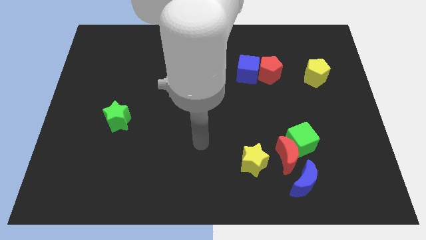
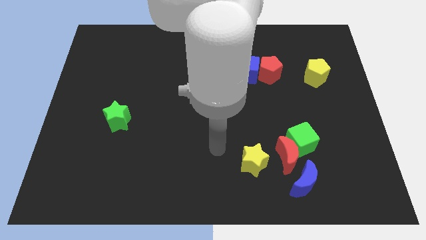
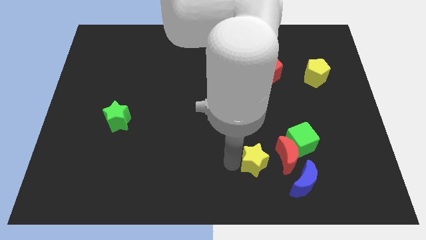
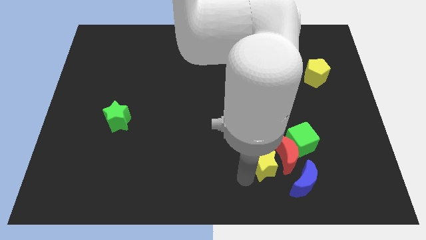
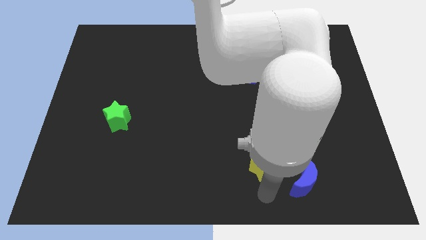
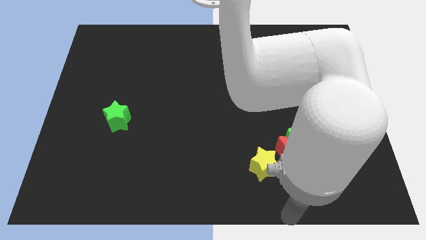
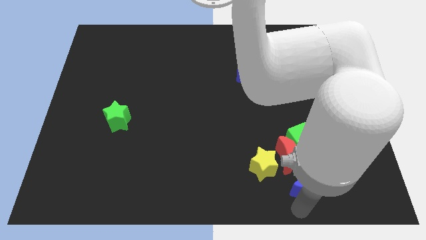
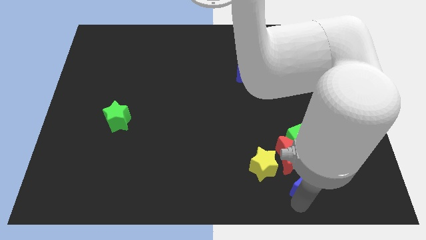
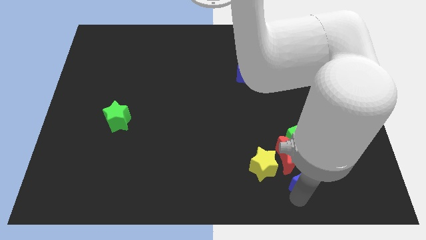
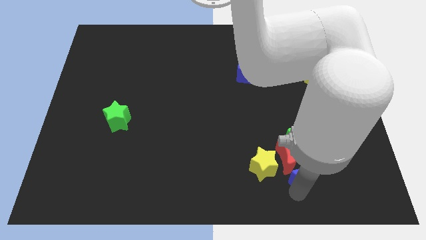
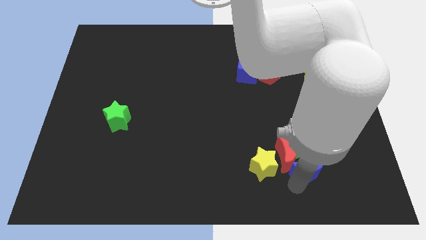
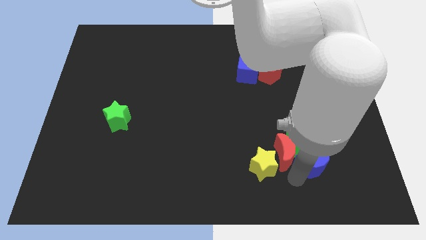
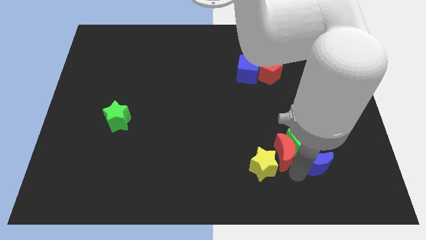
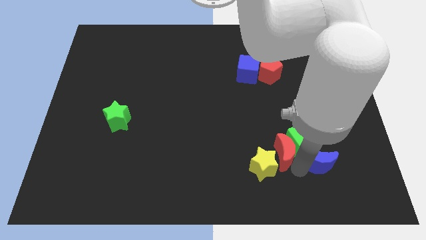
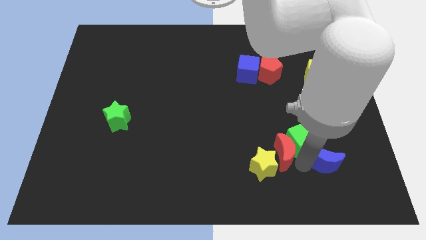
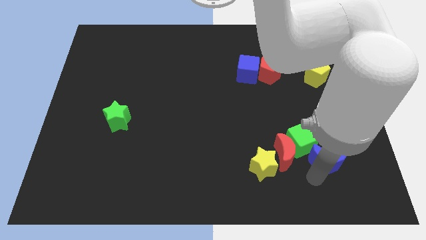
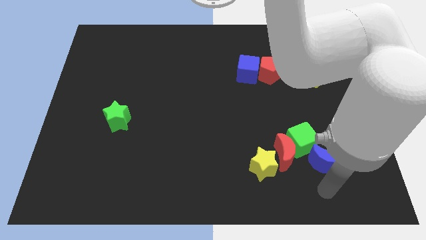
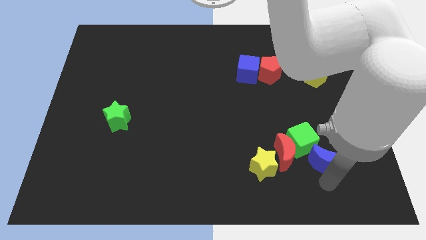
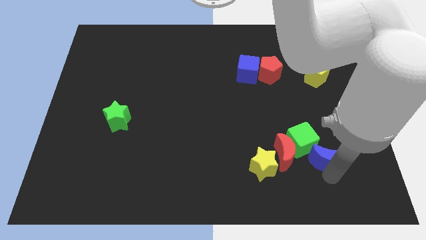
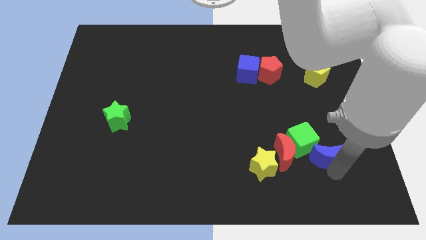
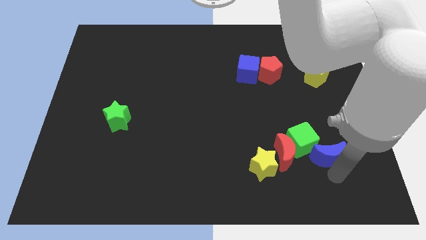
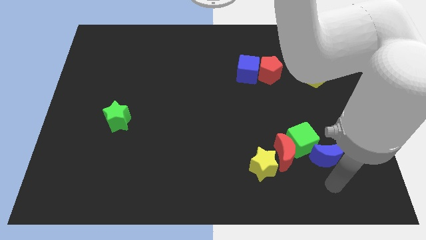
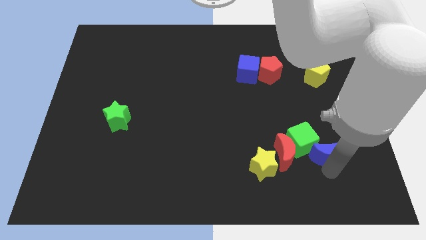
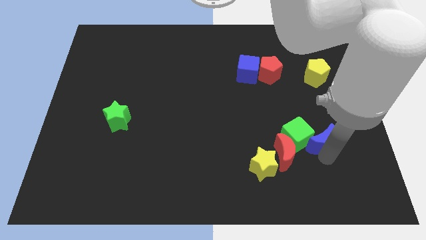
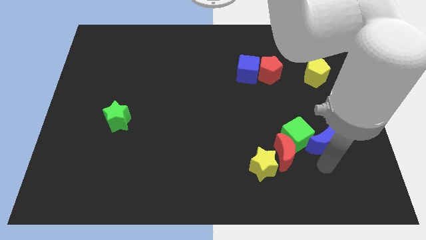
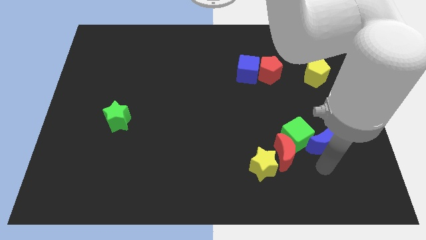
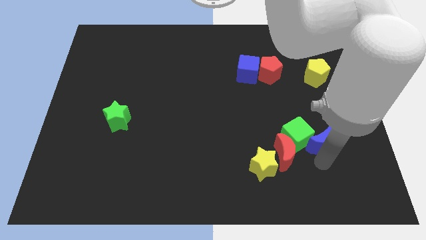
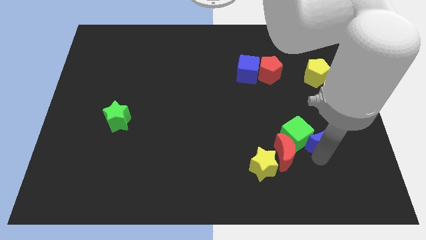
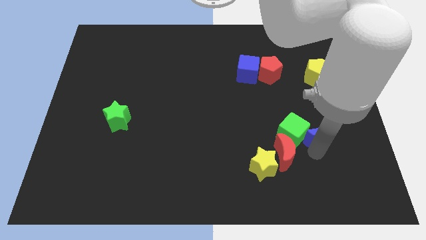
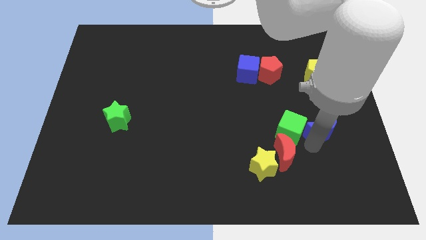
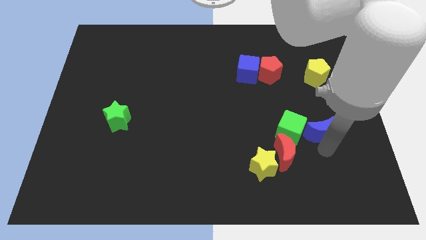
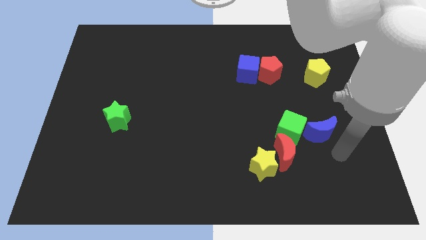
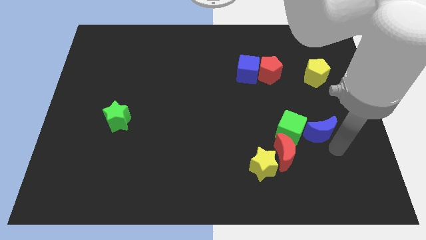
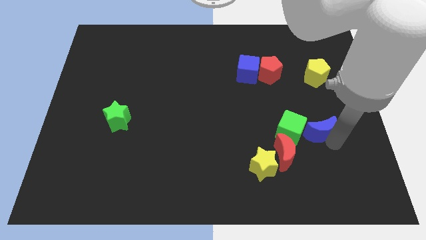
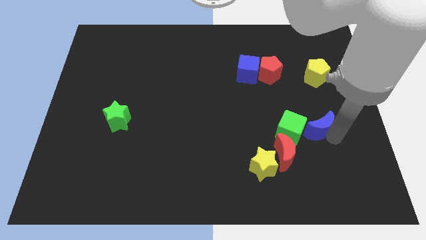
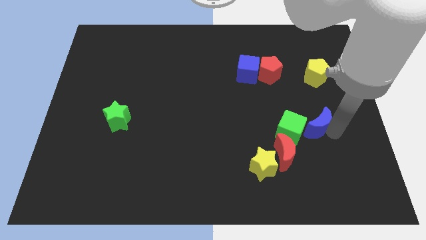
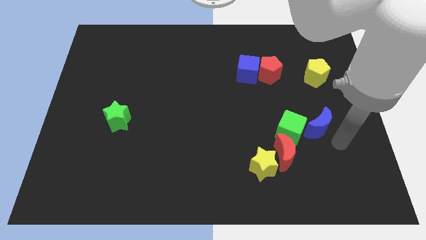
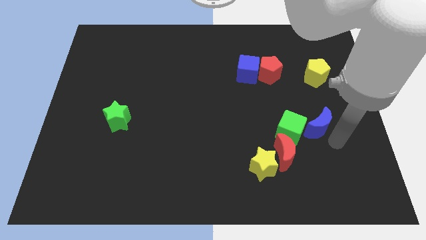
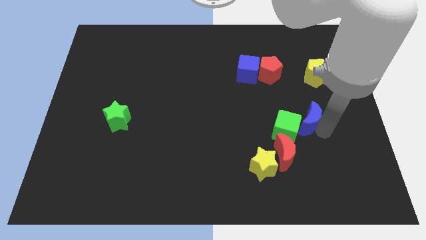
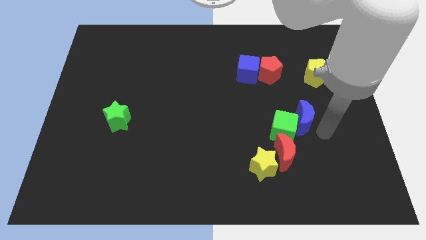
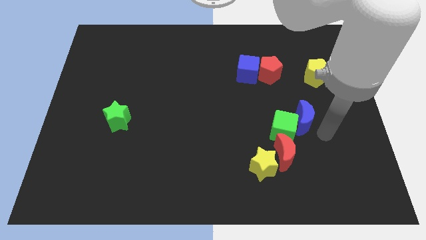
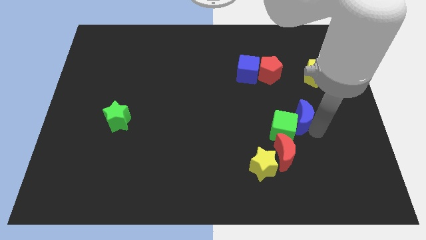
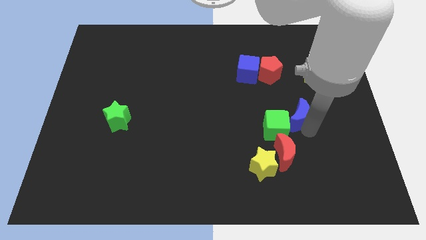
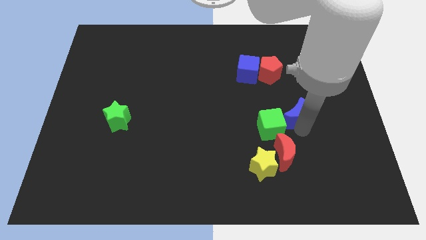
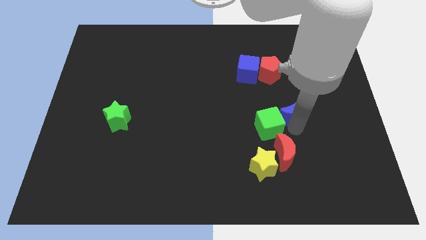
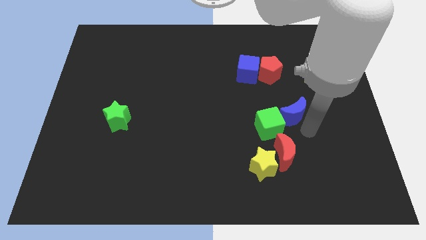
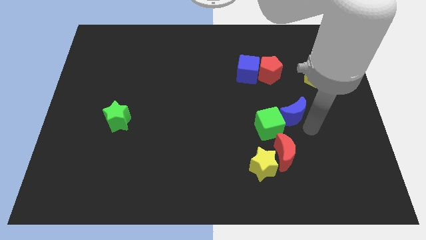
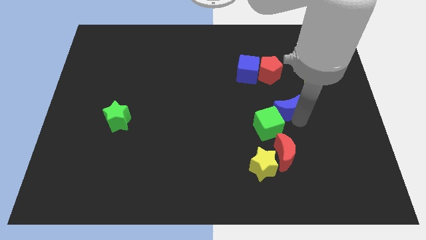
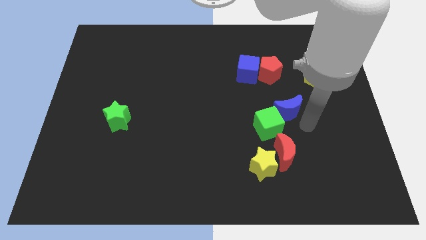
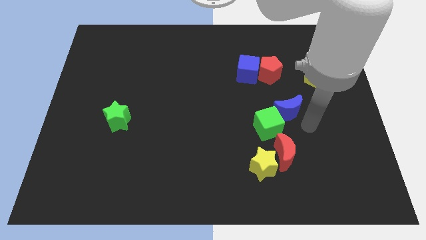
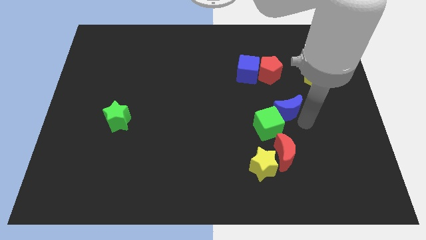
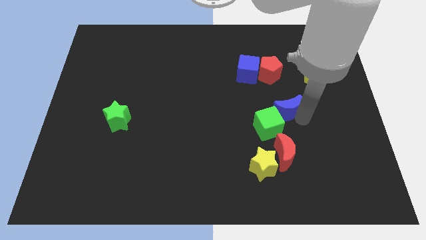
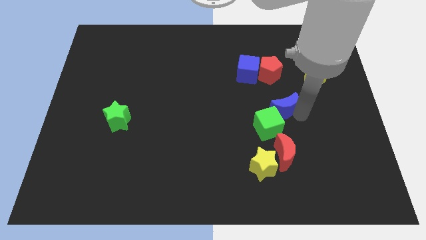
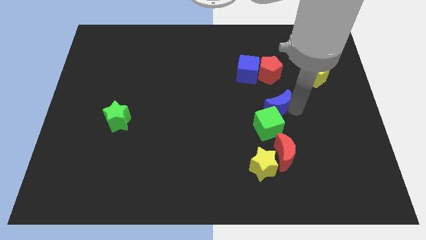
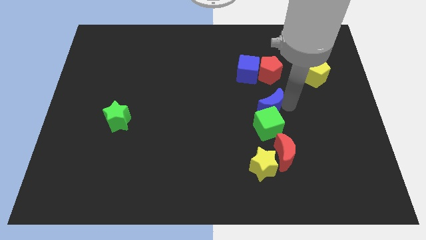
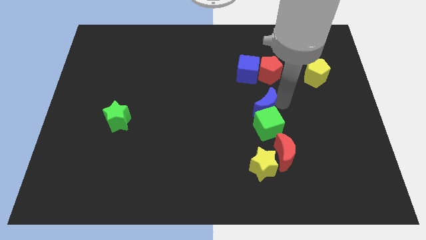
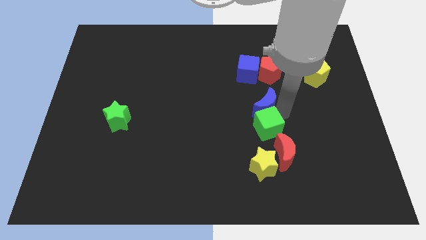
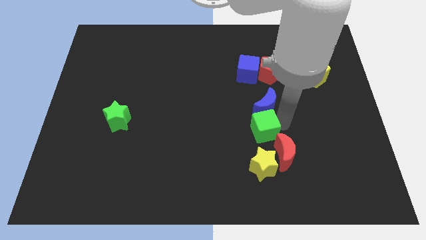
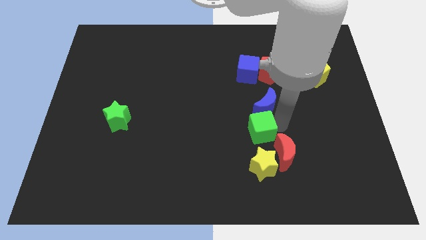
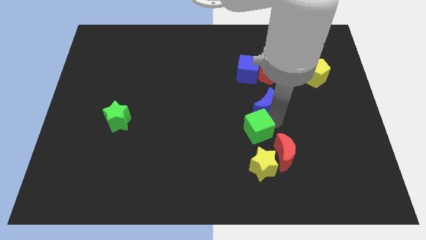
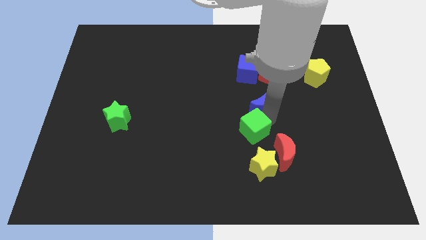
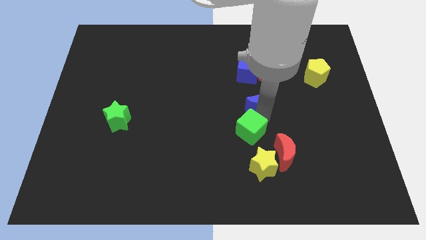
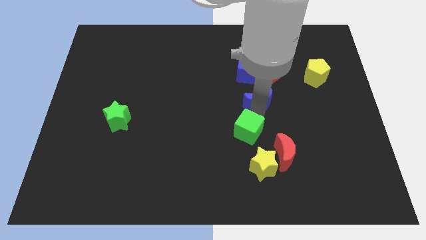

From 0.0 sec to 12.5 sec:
slide the blue moon to the bottom left side of the red pentagon

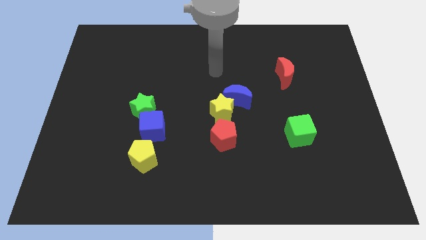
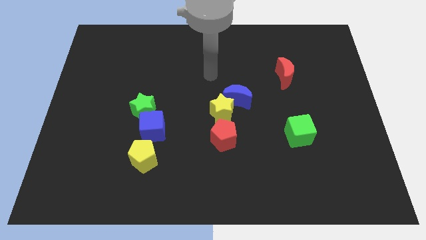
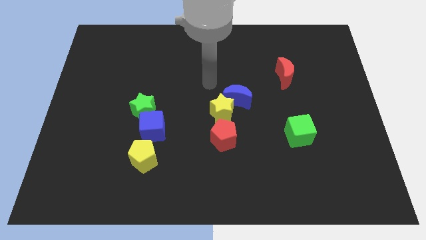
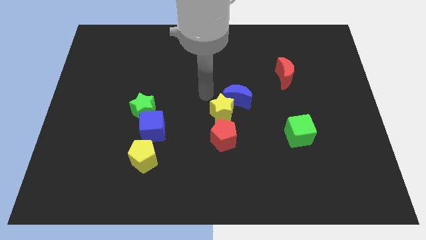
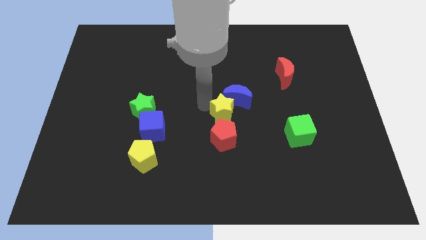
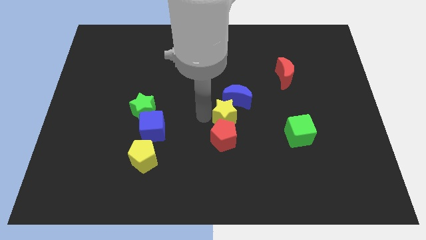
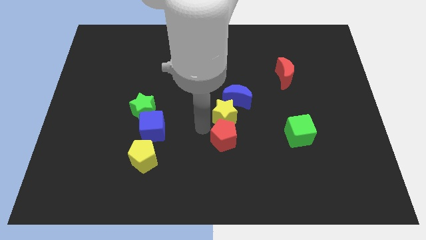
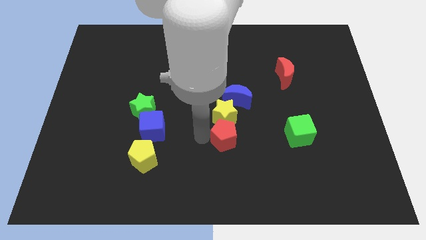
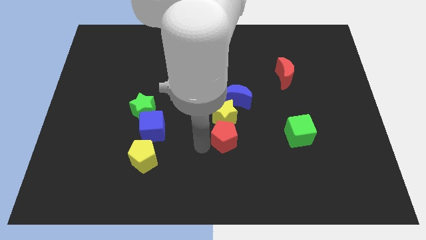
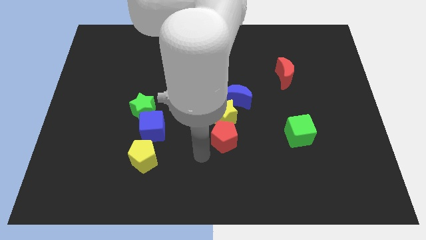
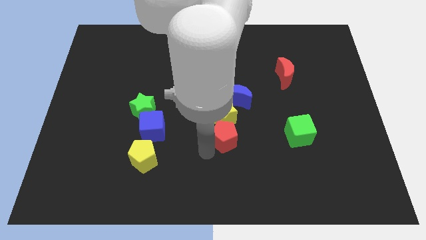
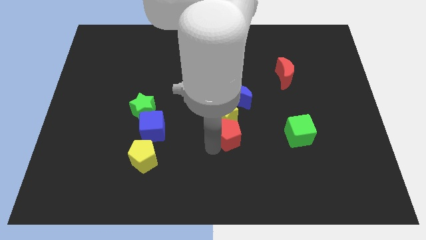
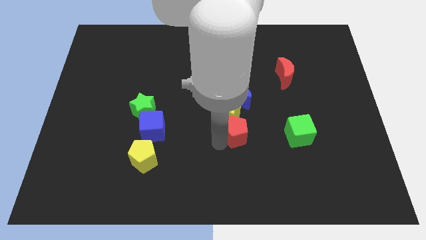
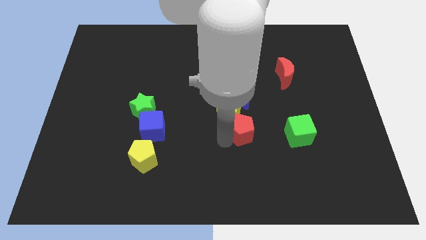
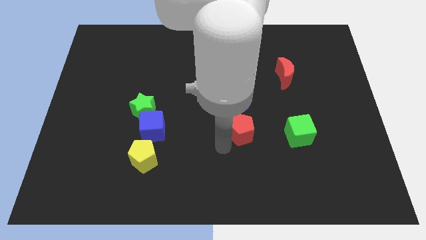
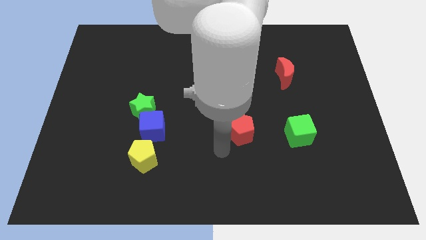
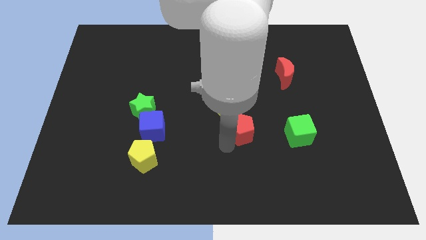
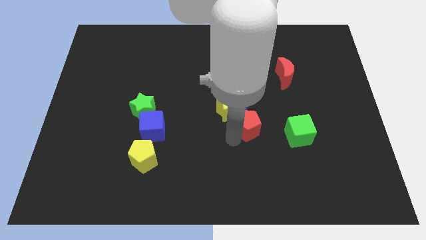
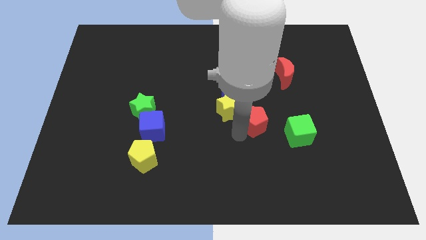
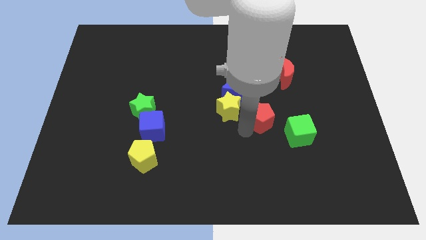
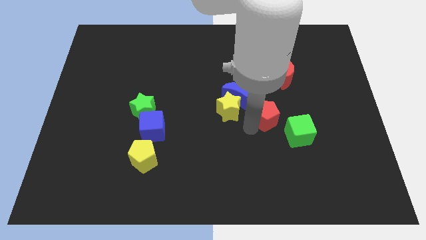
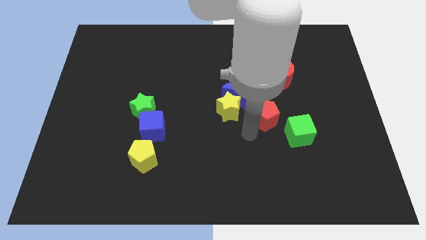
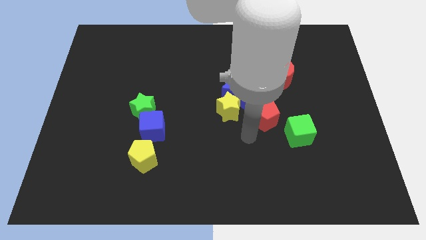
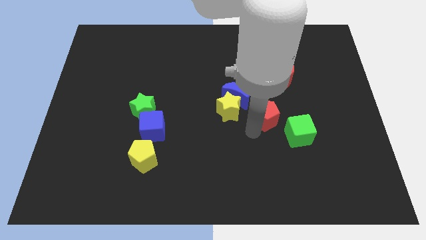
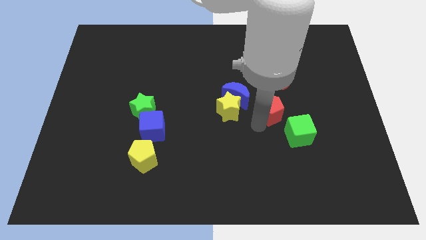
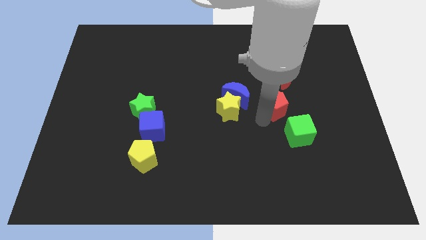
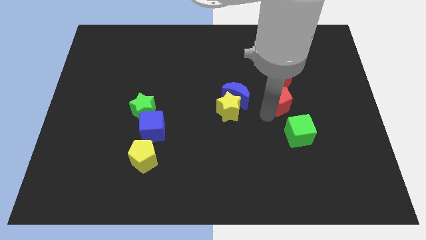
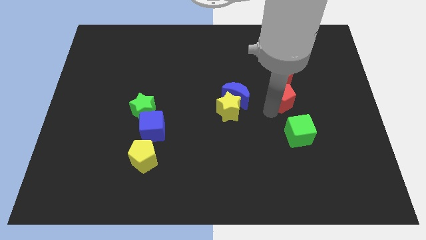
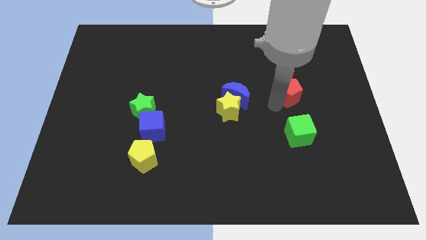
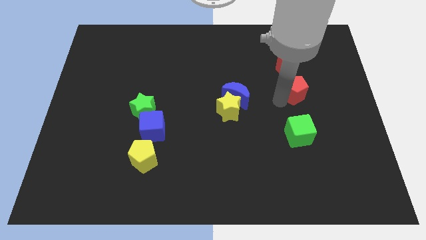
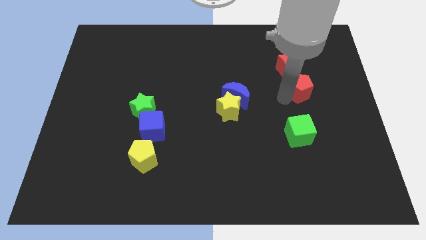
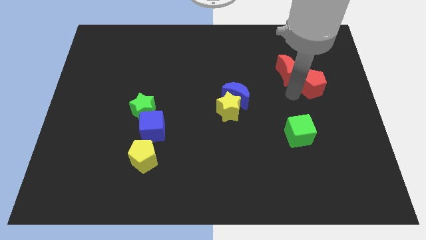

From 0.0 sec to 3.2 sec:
move the red pentagon right of the red moon
